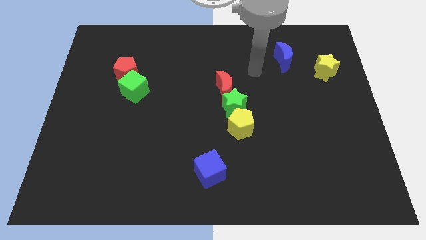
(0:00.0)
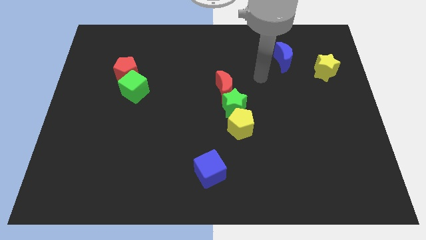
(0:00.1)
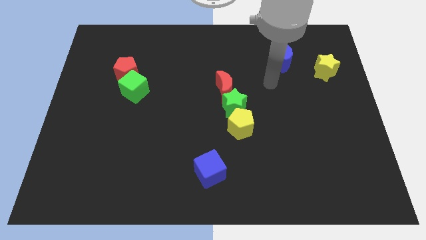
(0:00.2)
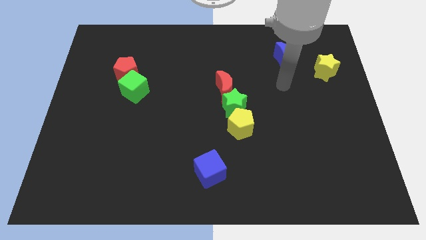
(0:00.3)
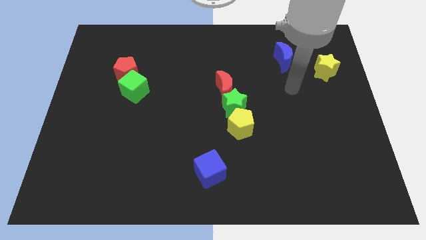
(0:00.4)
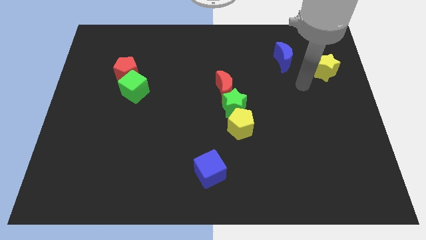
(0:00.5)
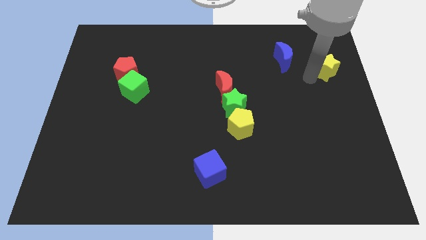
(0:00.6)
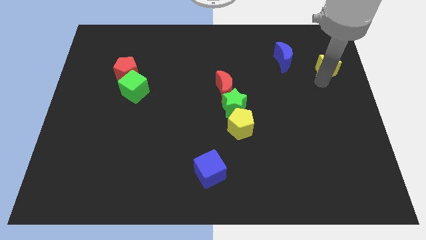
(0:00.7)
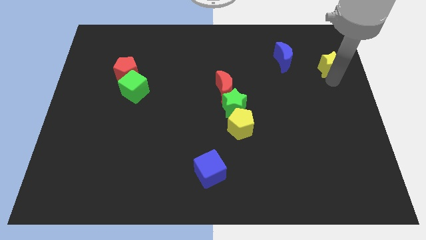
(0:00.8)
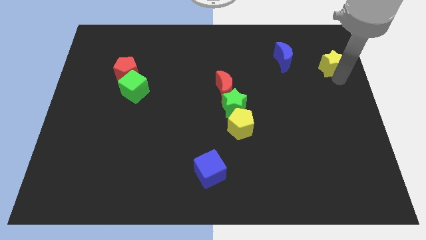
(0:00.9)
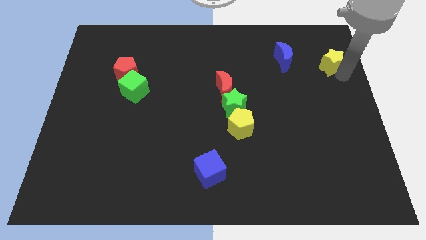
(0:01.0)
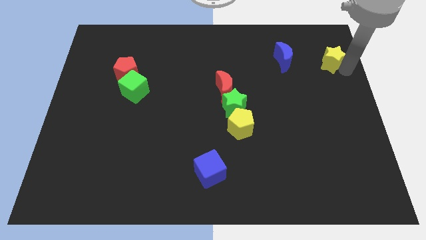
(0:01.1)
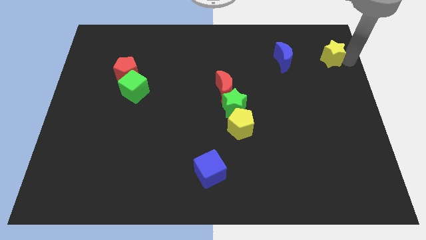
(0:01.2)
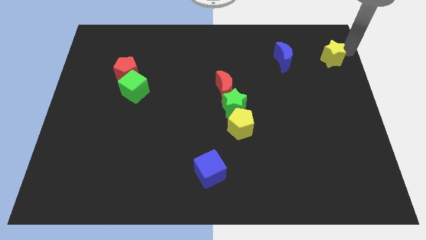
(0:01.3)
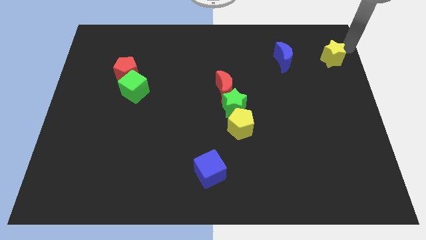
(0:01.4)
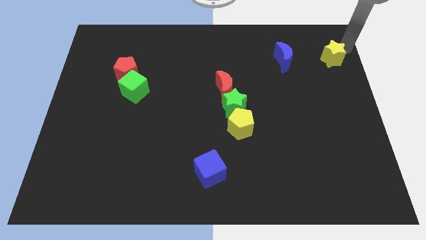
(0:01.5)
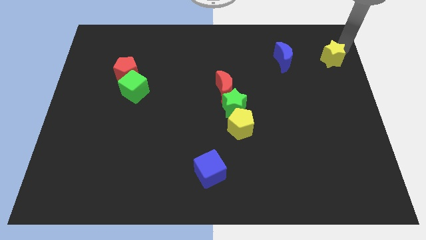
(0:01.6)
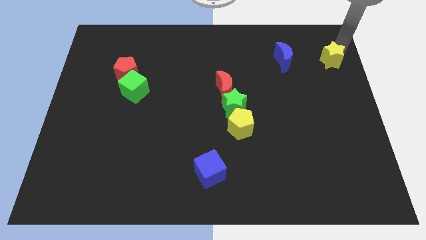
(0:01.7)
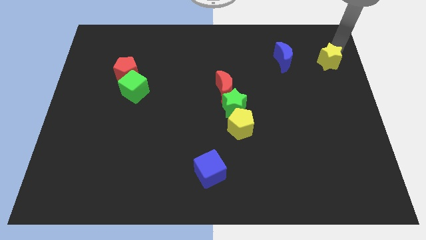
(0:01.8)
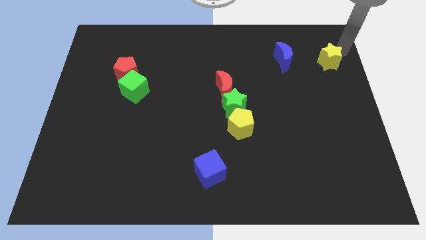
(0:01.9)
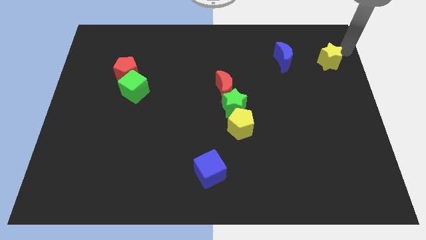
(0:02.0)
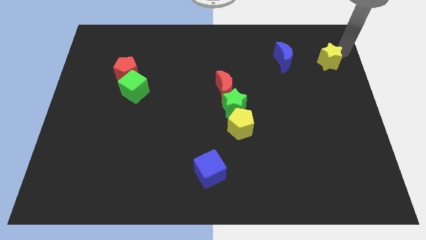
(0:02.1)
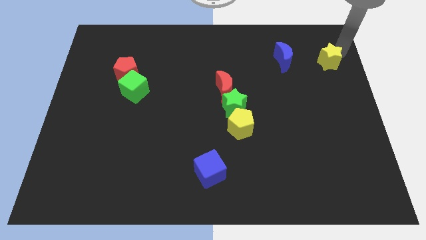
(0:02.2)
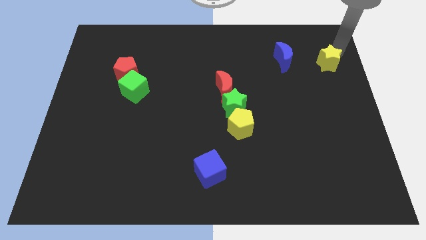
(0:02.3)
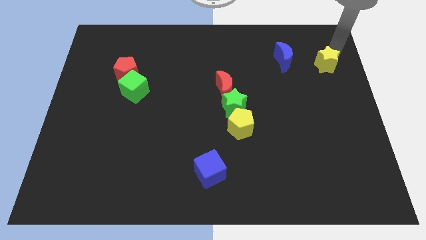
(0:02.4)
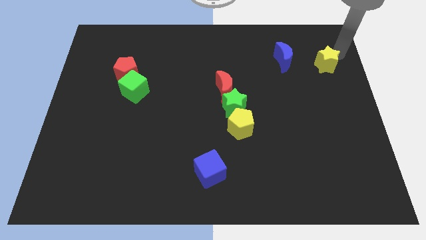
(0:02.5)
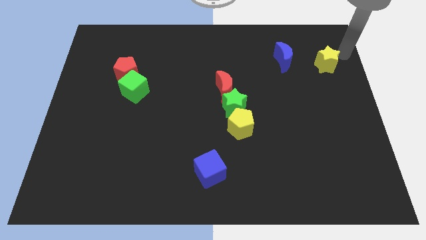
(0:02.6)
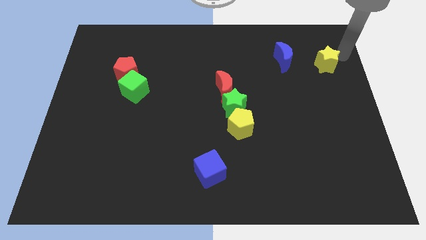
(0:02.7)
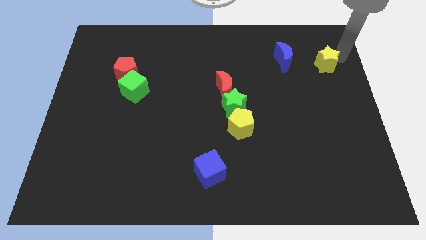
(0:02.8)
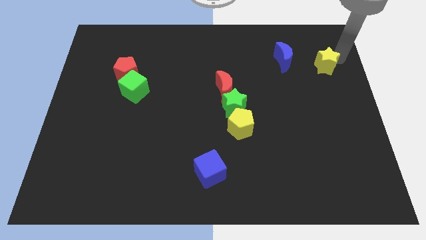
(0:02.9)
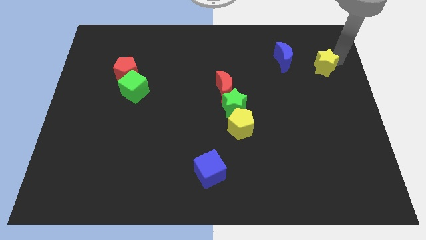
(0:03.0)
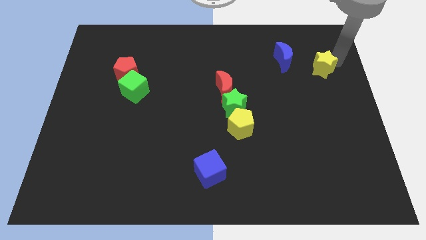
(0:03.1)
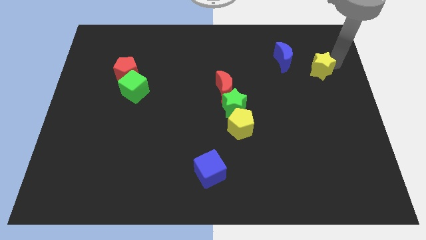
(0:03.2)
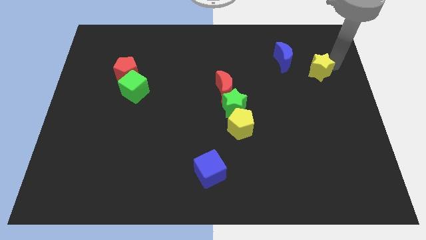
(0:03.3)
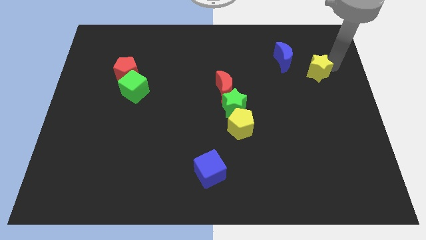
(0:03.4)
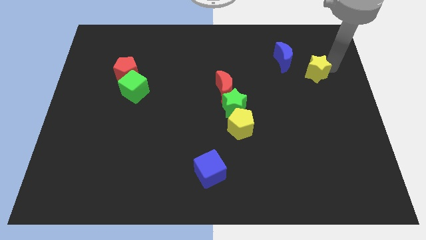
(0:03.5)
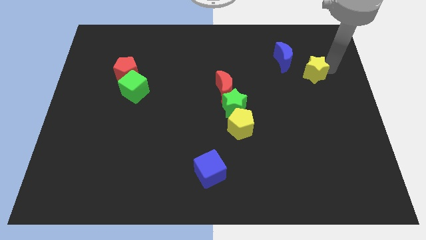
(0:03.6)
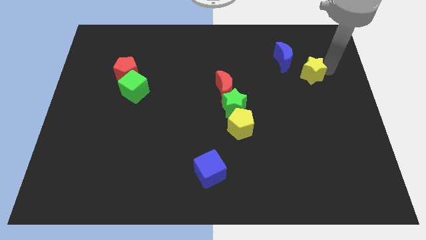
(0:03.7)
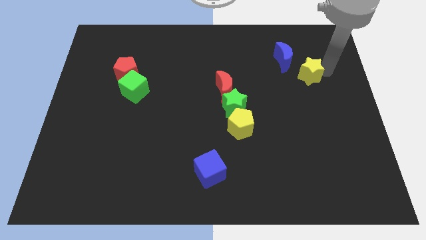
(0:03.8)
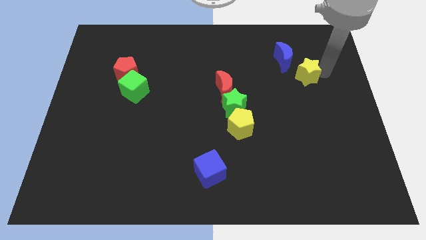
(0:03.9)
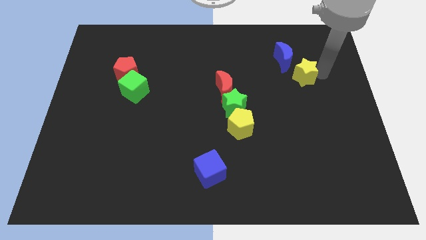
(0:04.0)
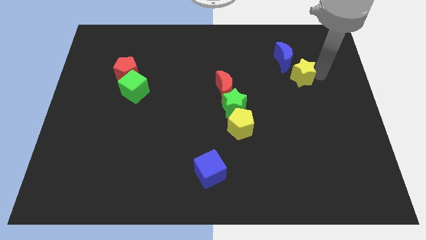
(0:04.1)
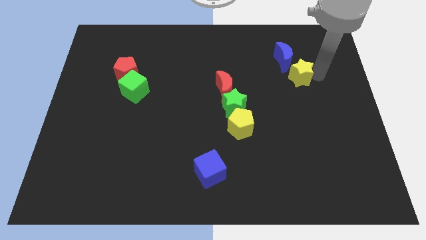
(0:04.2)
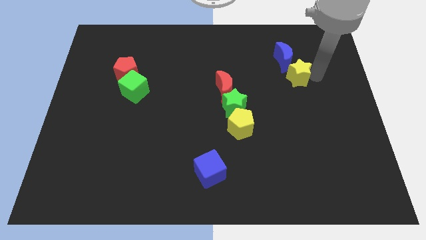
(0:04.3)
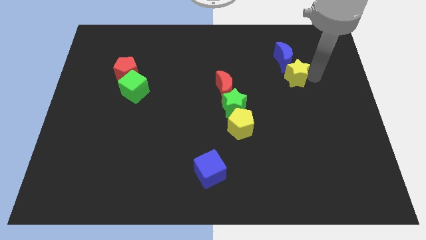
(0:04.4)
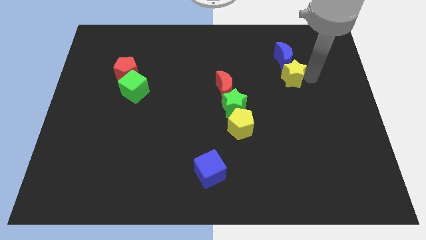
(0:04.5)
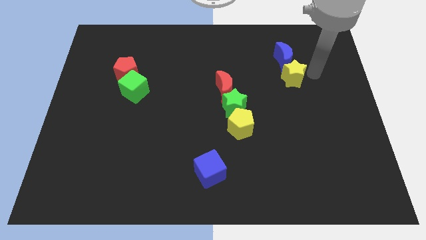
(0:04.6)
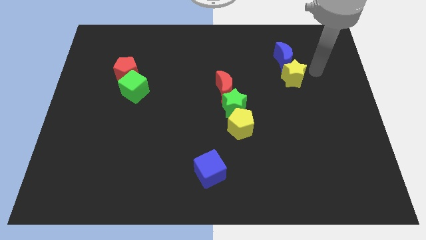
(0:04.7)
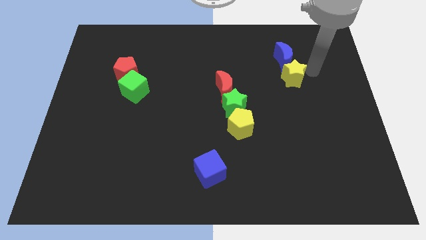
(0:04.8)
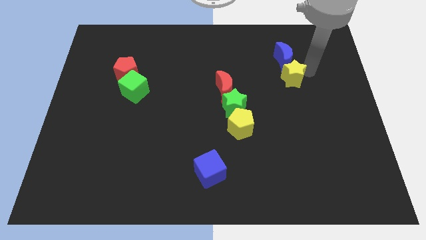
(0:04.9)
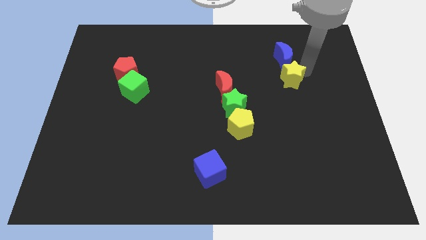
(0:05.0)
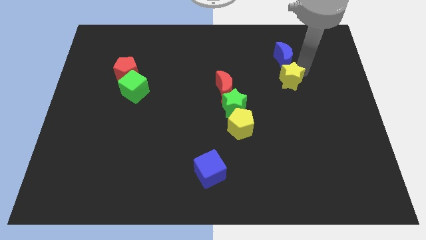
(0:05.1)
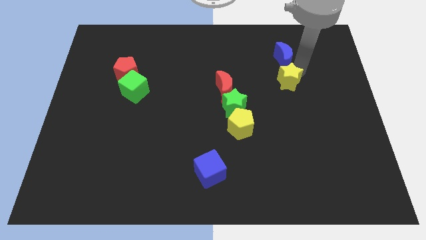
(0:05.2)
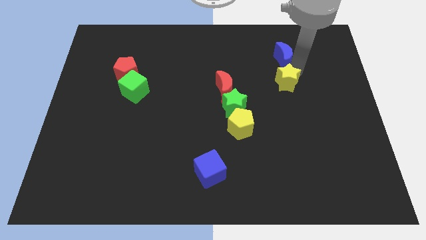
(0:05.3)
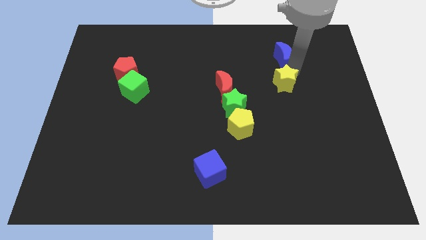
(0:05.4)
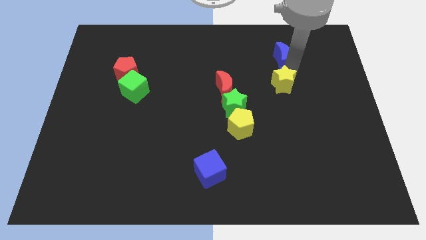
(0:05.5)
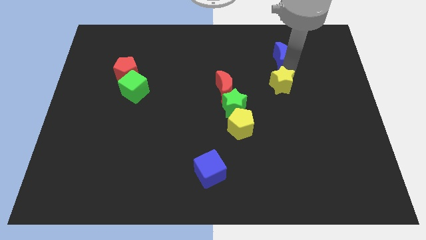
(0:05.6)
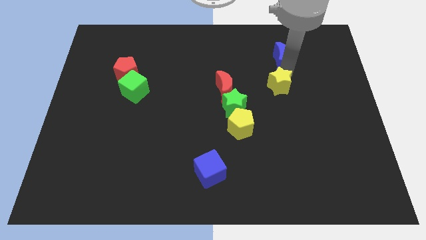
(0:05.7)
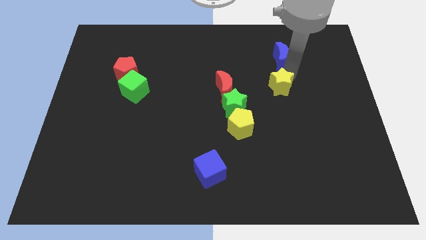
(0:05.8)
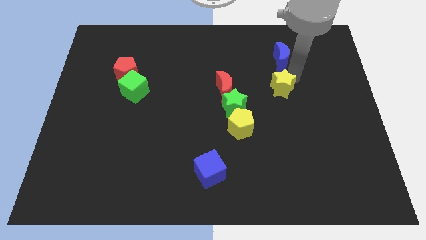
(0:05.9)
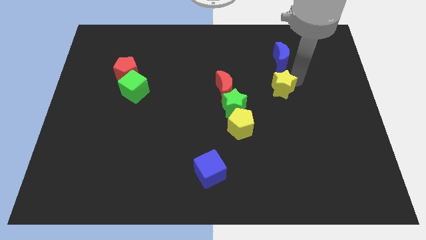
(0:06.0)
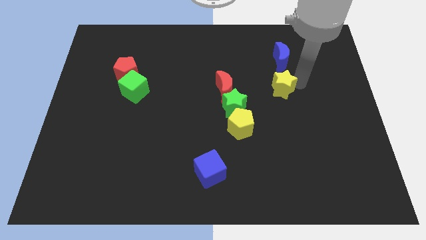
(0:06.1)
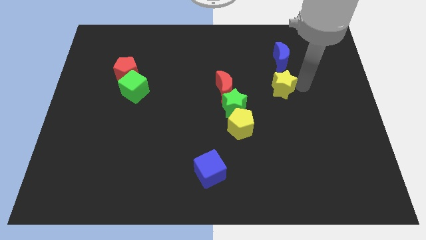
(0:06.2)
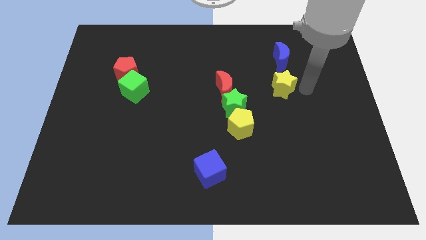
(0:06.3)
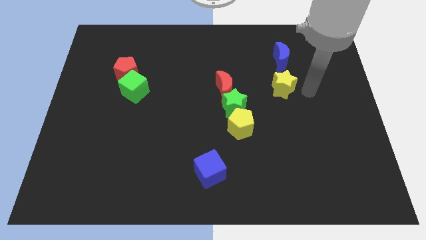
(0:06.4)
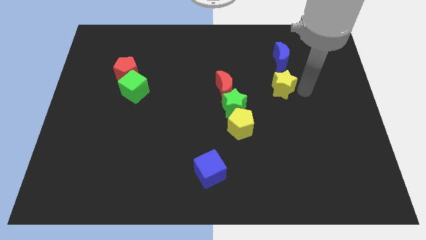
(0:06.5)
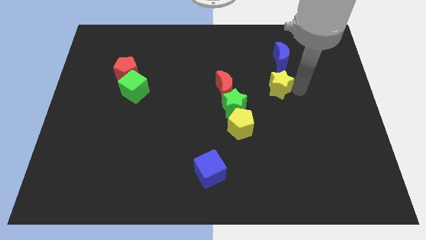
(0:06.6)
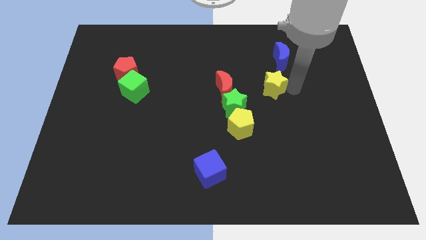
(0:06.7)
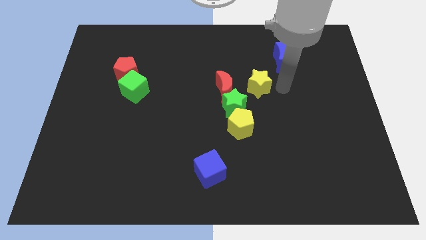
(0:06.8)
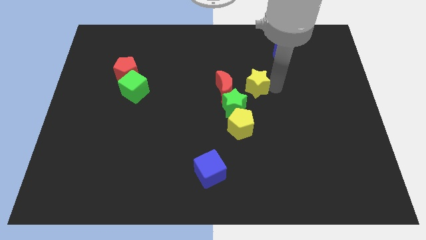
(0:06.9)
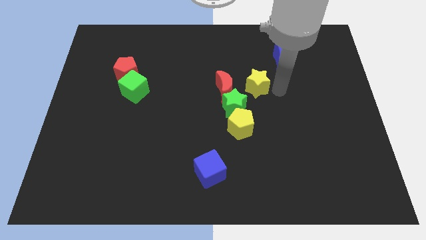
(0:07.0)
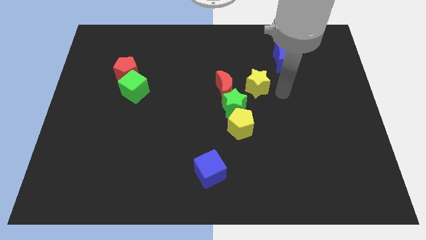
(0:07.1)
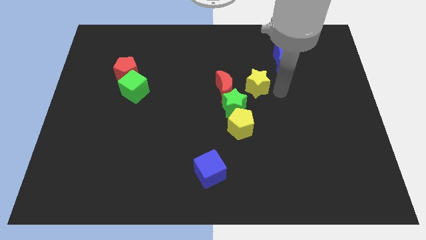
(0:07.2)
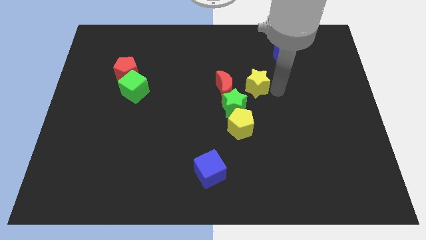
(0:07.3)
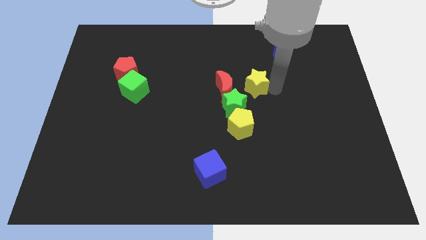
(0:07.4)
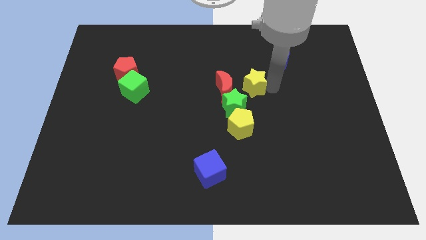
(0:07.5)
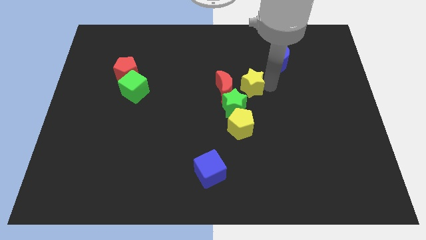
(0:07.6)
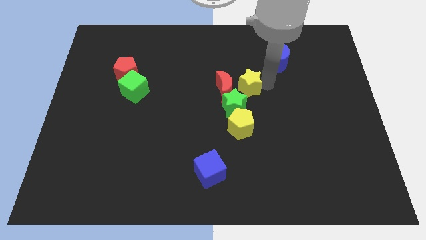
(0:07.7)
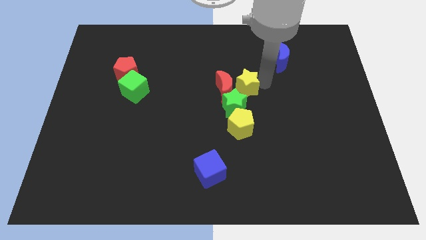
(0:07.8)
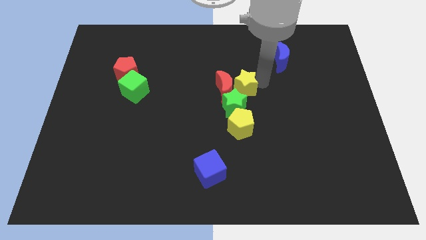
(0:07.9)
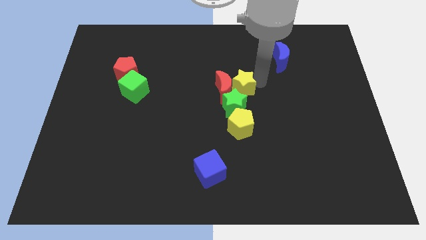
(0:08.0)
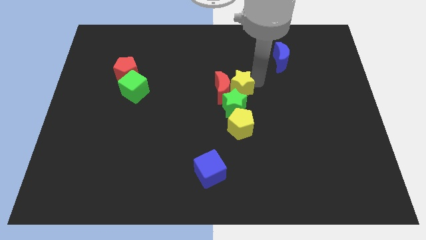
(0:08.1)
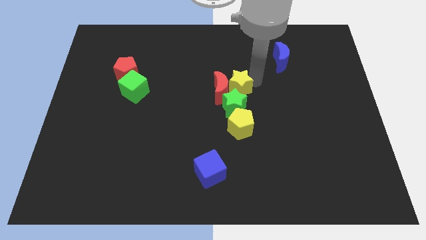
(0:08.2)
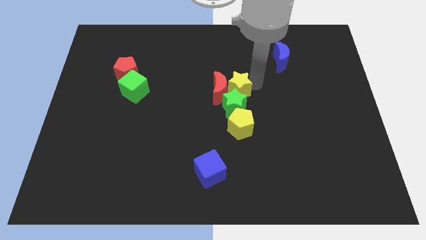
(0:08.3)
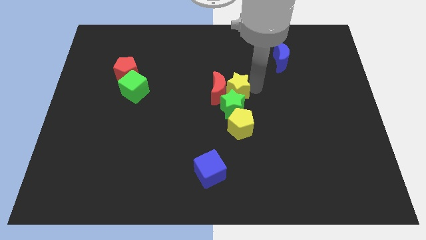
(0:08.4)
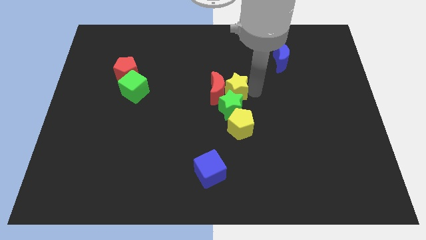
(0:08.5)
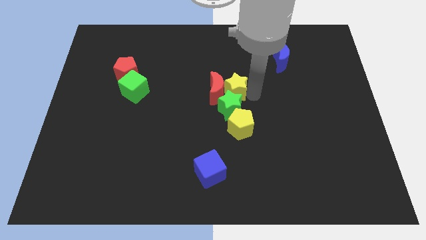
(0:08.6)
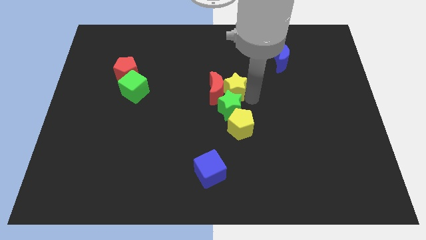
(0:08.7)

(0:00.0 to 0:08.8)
put the yellow star to the top left side of the green star
